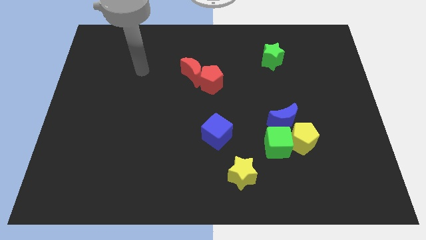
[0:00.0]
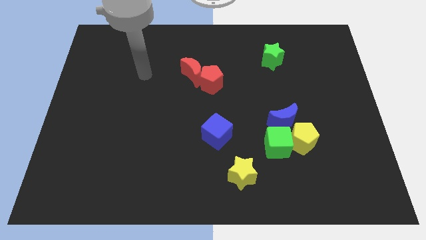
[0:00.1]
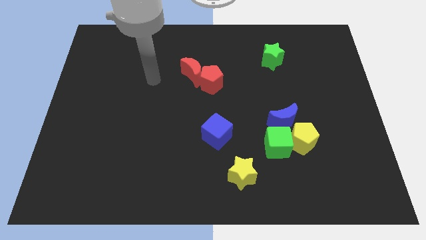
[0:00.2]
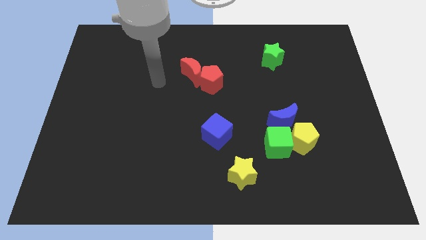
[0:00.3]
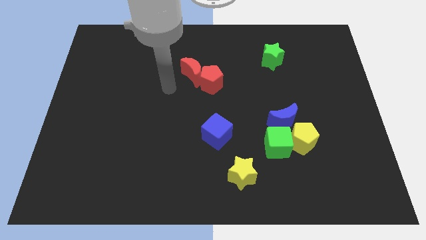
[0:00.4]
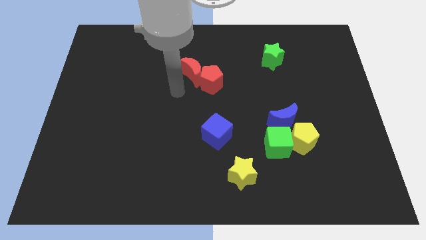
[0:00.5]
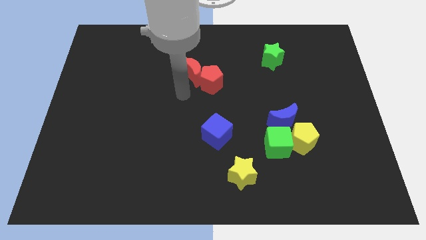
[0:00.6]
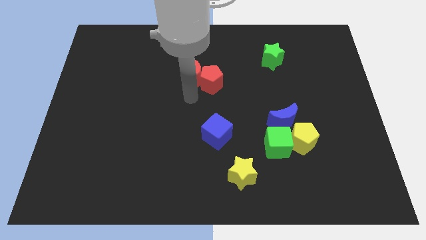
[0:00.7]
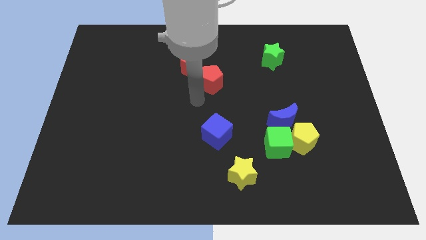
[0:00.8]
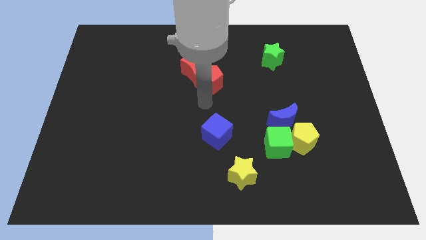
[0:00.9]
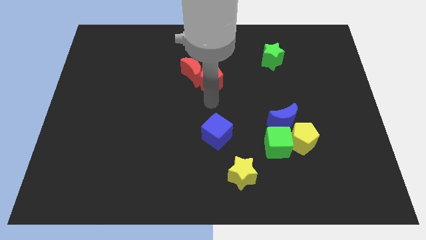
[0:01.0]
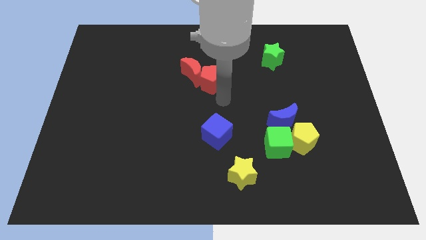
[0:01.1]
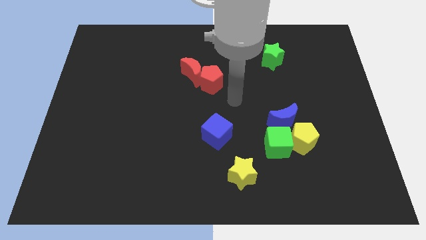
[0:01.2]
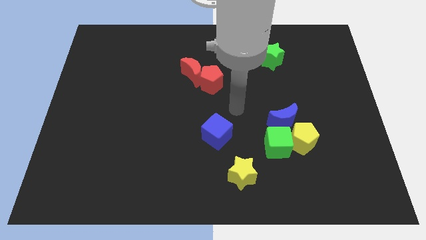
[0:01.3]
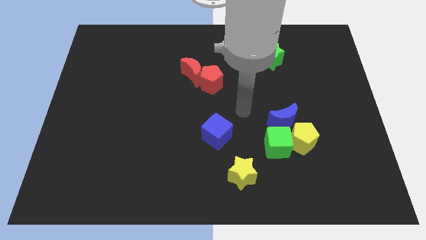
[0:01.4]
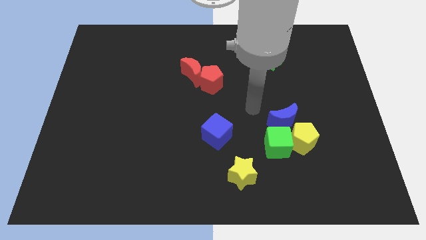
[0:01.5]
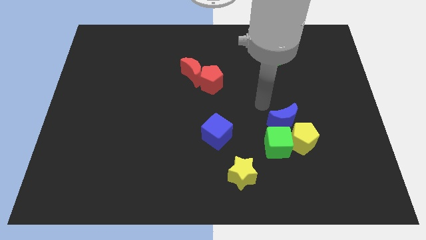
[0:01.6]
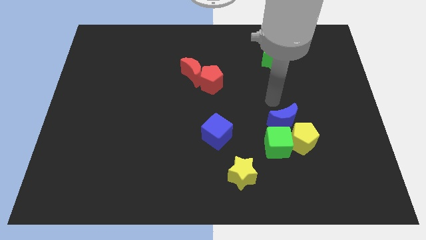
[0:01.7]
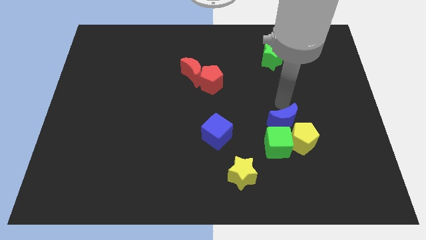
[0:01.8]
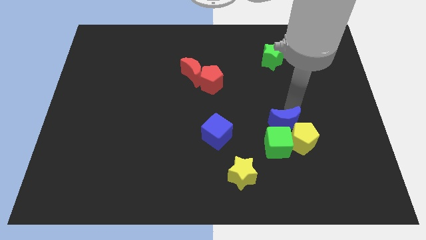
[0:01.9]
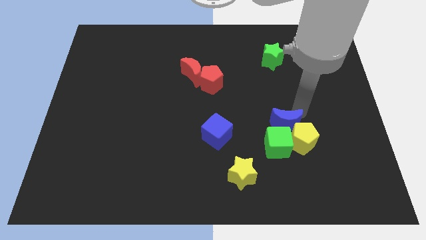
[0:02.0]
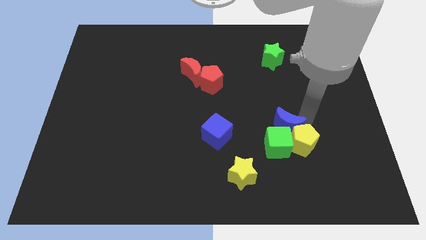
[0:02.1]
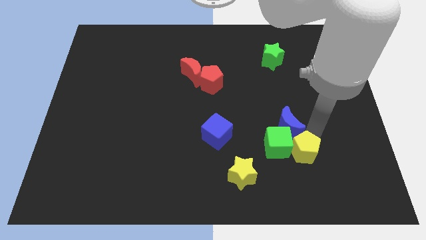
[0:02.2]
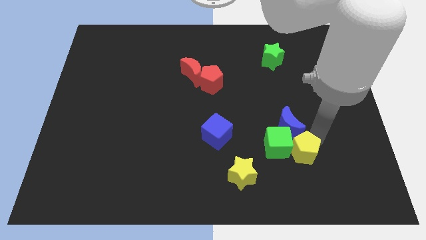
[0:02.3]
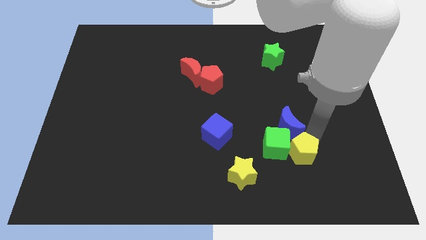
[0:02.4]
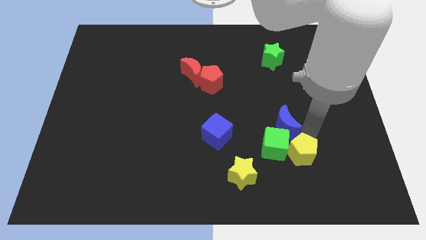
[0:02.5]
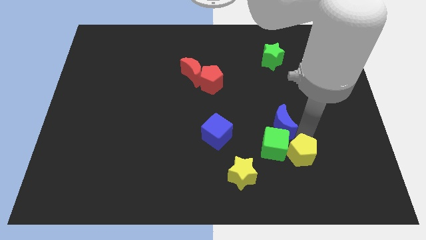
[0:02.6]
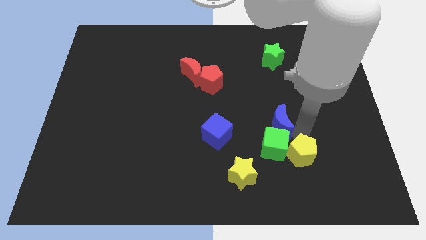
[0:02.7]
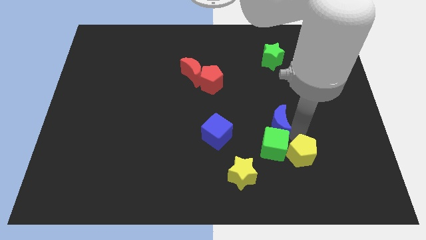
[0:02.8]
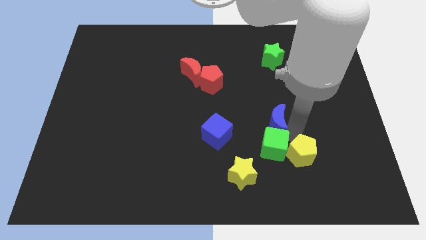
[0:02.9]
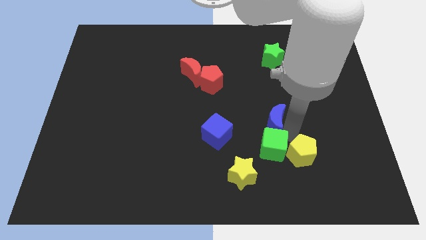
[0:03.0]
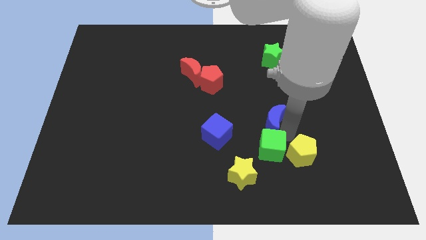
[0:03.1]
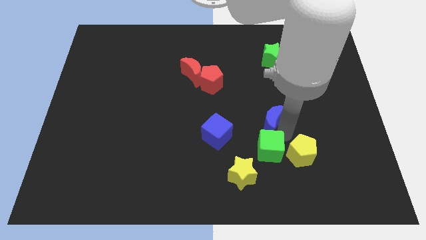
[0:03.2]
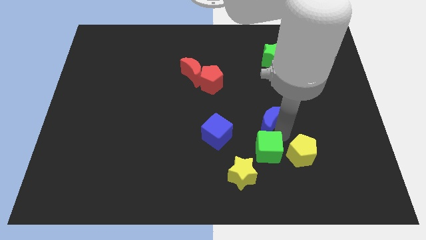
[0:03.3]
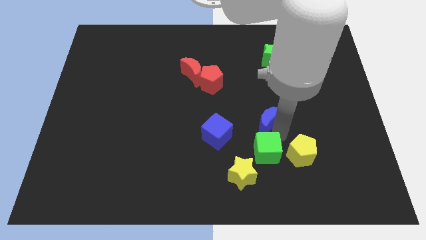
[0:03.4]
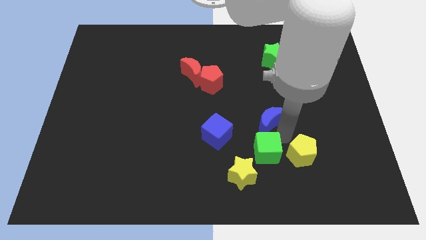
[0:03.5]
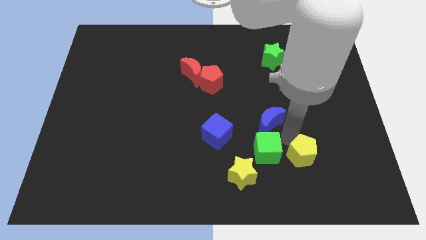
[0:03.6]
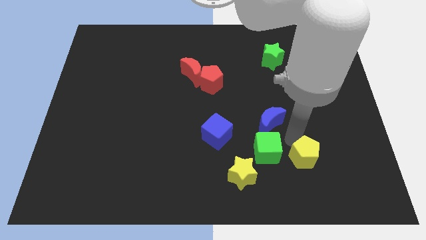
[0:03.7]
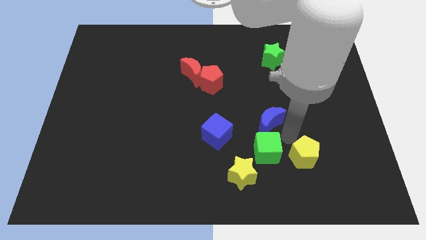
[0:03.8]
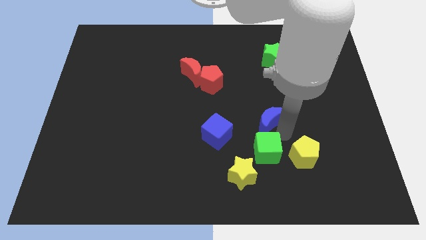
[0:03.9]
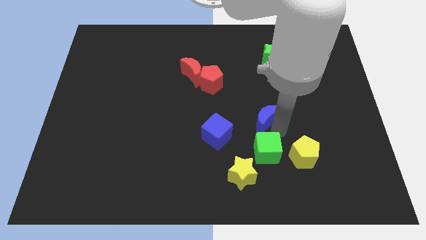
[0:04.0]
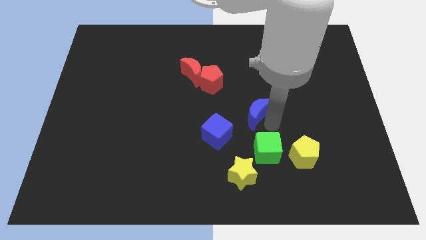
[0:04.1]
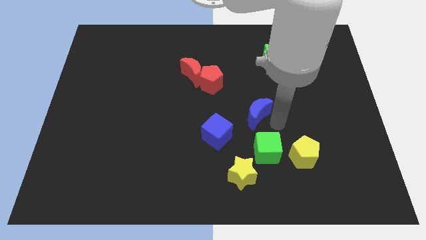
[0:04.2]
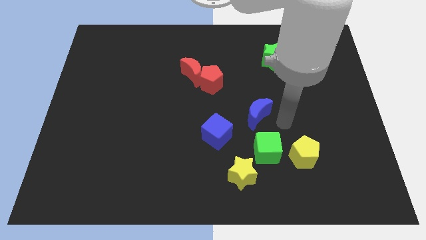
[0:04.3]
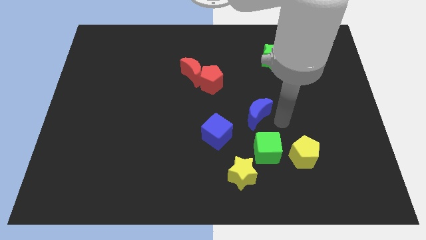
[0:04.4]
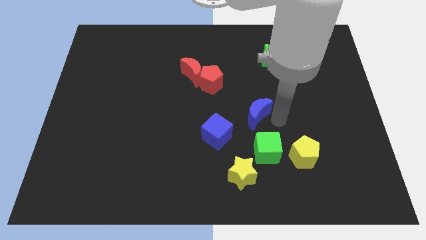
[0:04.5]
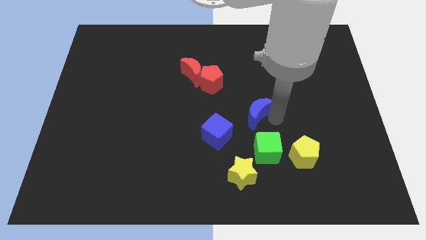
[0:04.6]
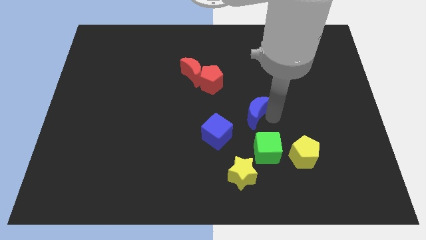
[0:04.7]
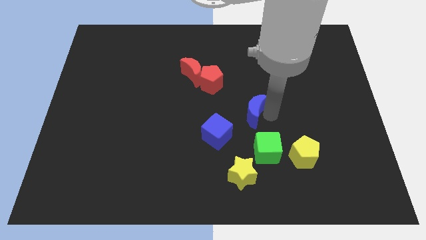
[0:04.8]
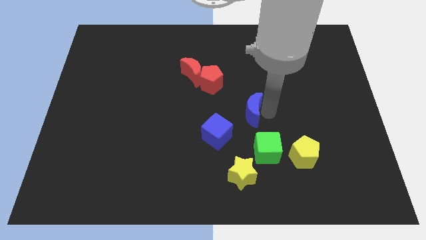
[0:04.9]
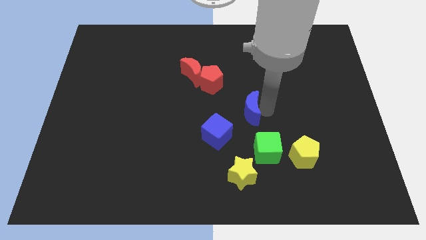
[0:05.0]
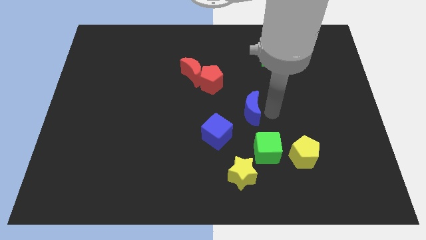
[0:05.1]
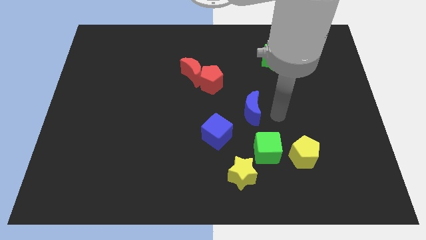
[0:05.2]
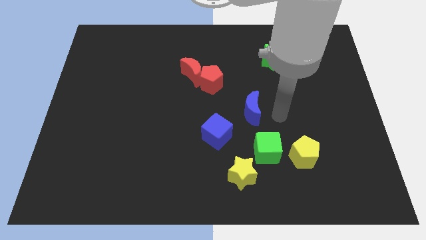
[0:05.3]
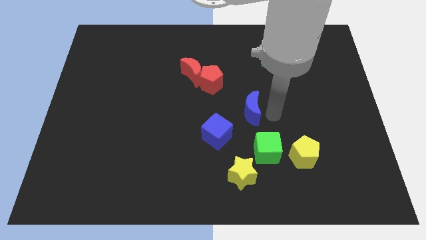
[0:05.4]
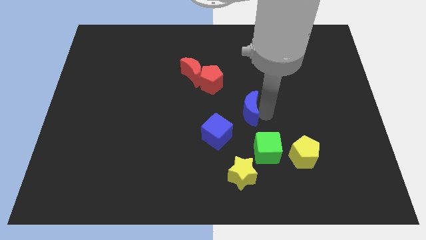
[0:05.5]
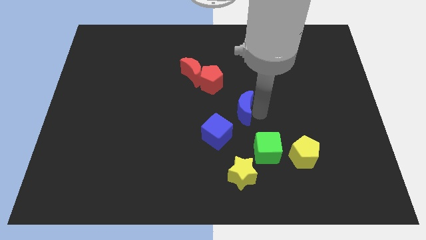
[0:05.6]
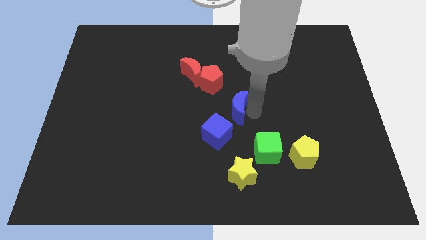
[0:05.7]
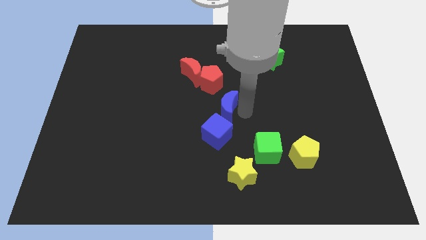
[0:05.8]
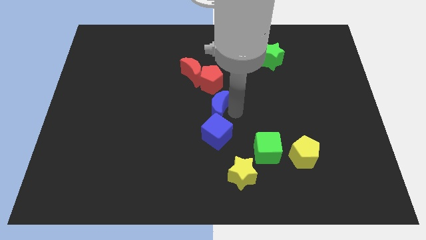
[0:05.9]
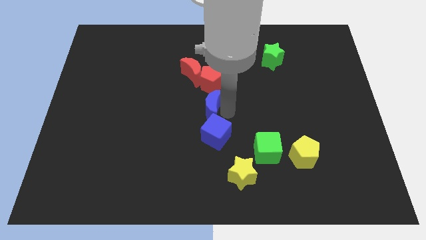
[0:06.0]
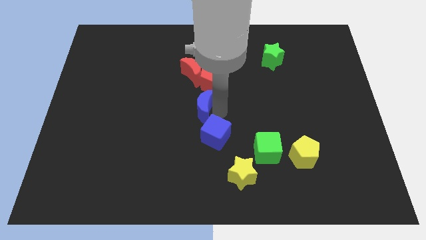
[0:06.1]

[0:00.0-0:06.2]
slide the blue moon to the bottom left side of the red pentagon
